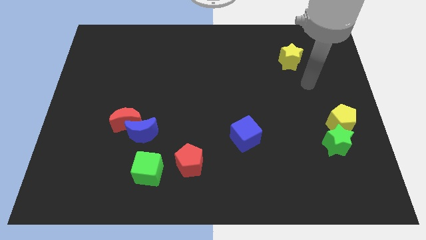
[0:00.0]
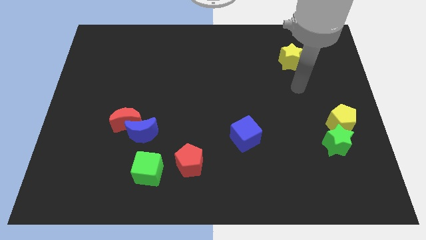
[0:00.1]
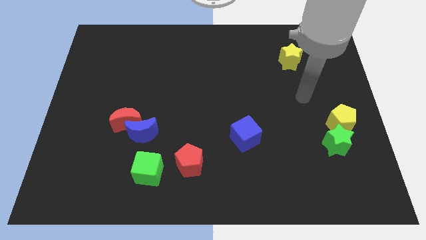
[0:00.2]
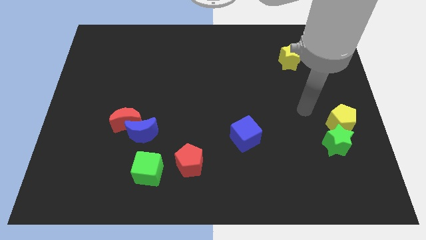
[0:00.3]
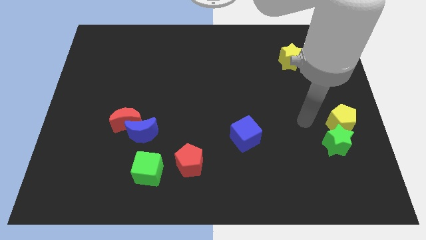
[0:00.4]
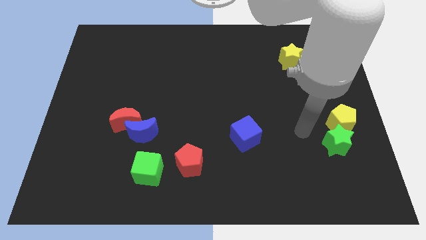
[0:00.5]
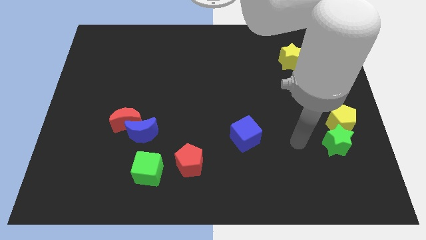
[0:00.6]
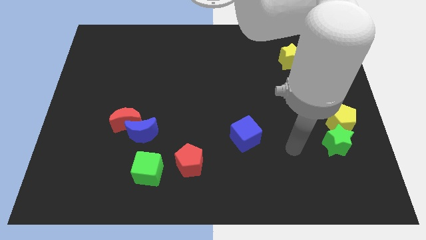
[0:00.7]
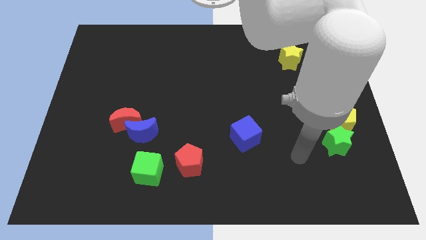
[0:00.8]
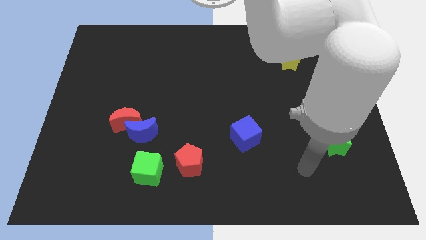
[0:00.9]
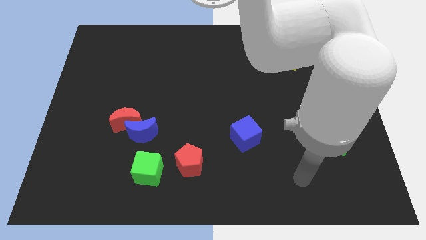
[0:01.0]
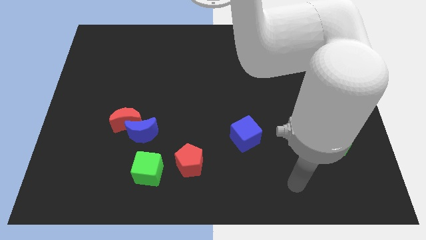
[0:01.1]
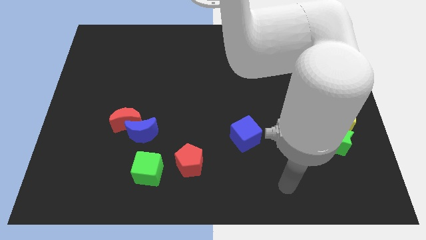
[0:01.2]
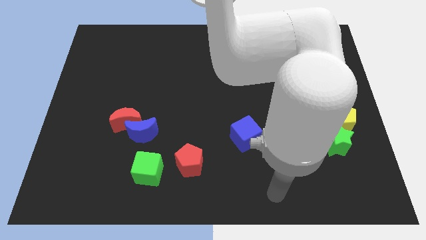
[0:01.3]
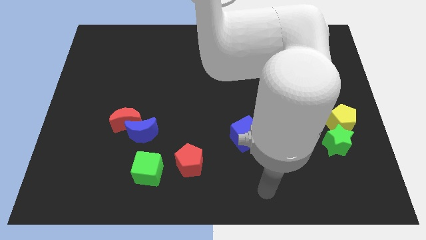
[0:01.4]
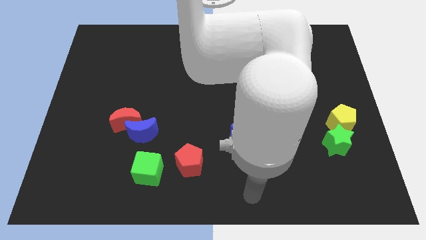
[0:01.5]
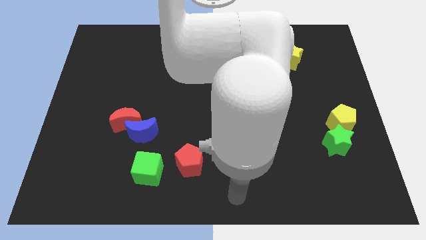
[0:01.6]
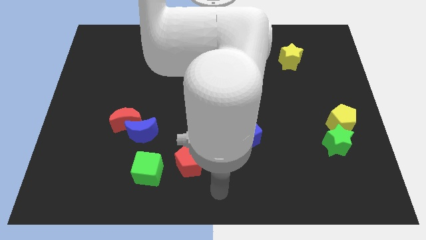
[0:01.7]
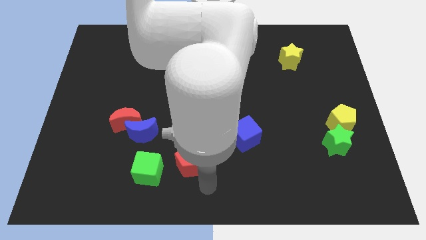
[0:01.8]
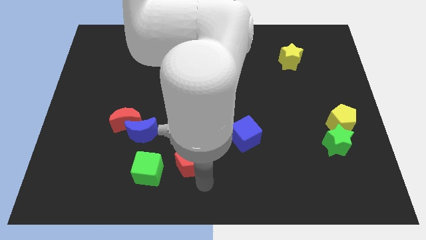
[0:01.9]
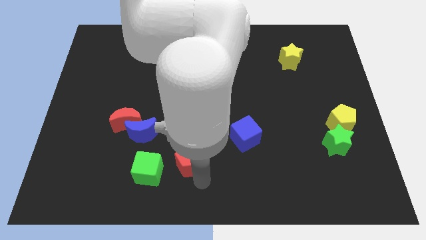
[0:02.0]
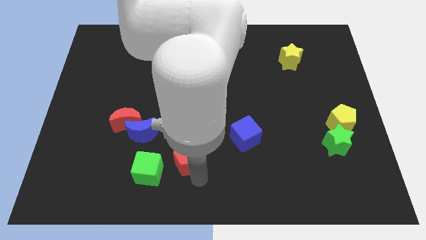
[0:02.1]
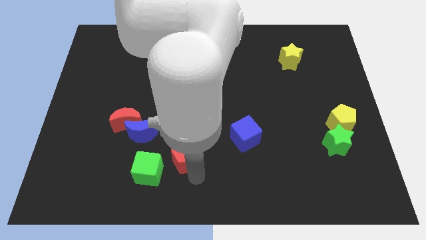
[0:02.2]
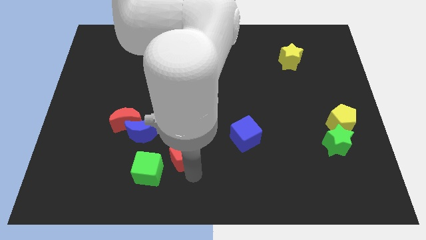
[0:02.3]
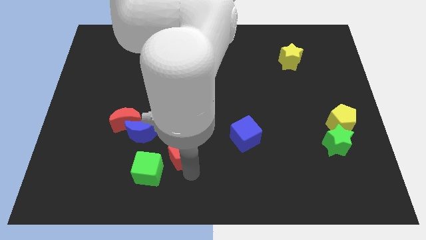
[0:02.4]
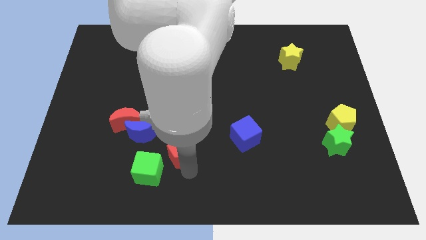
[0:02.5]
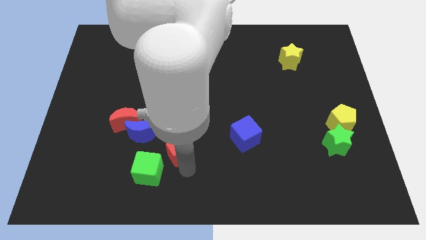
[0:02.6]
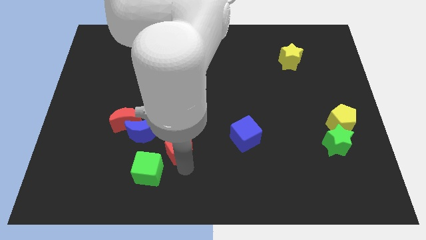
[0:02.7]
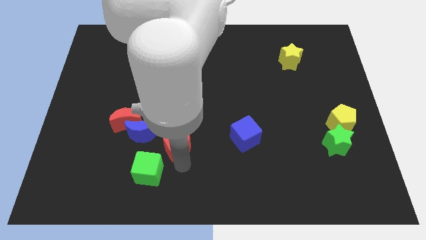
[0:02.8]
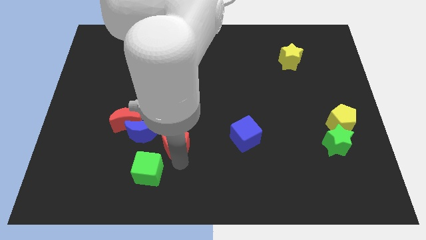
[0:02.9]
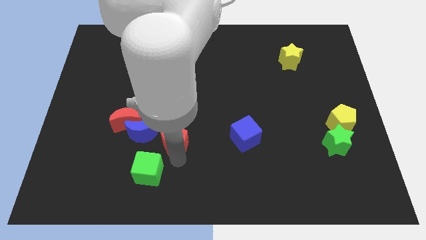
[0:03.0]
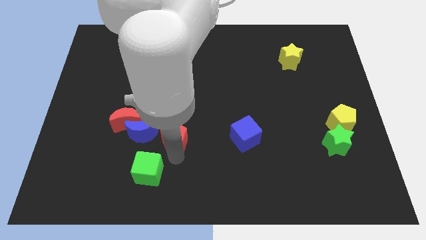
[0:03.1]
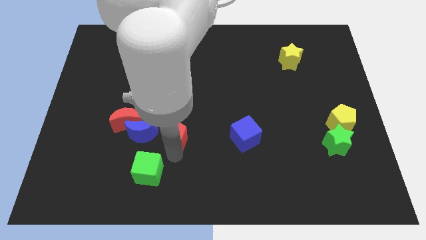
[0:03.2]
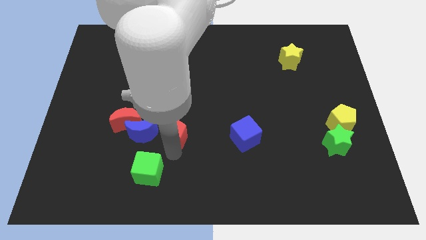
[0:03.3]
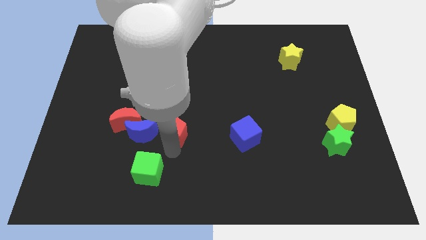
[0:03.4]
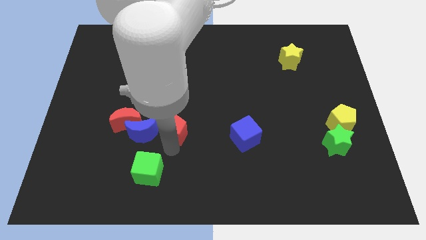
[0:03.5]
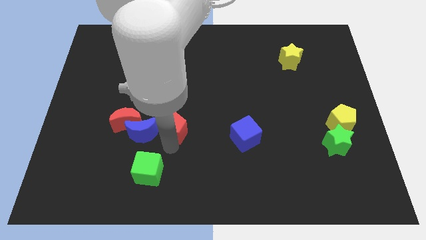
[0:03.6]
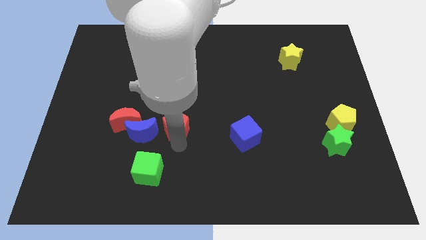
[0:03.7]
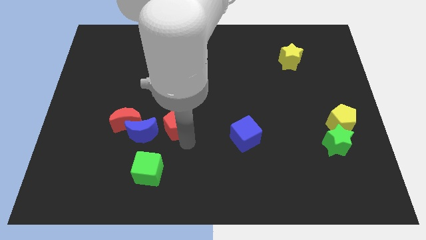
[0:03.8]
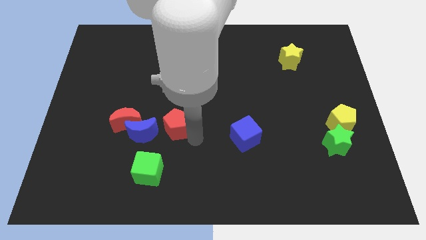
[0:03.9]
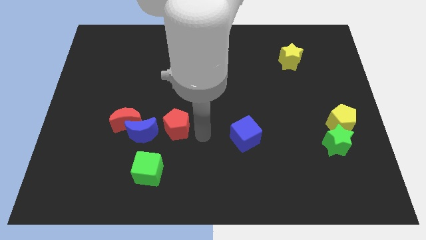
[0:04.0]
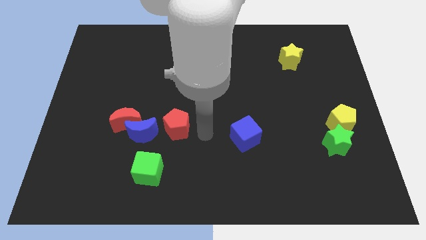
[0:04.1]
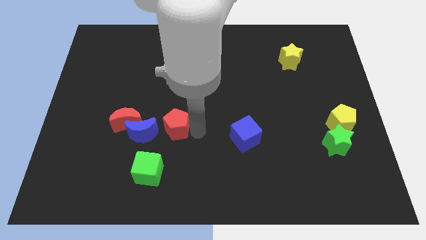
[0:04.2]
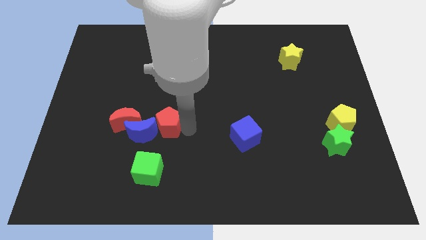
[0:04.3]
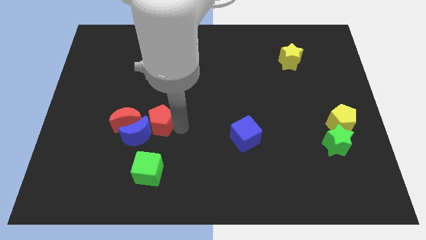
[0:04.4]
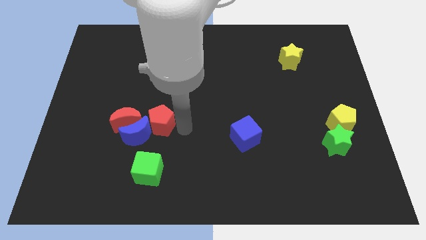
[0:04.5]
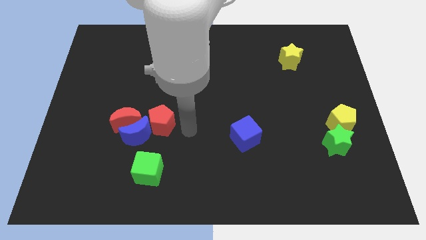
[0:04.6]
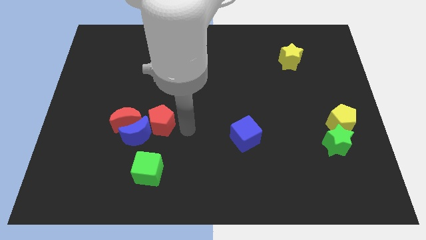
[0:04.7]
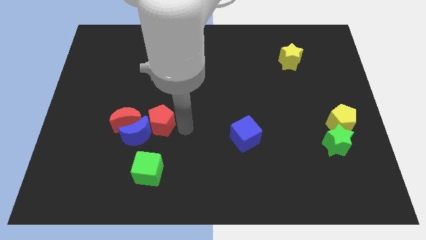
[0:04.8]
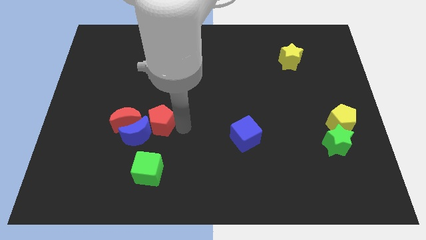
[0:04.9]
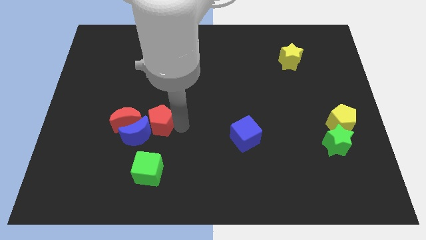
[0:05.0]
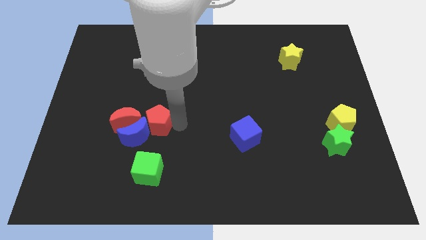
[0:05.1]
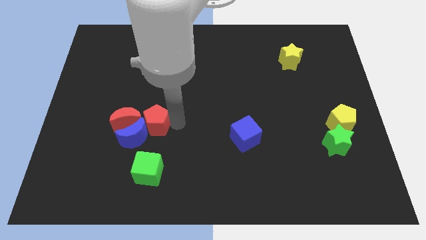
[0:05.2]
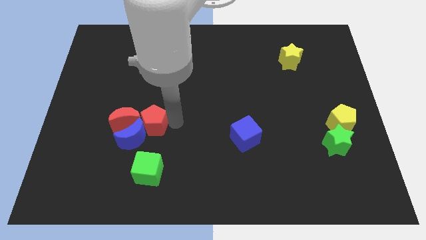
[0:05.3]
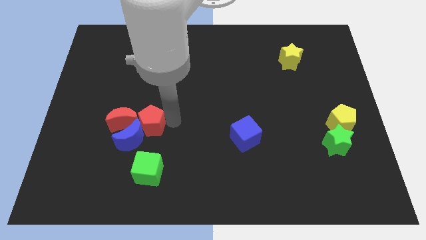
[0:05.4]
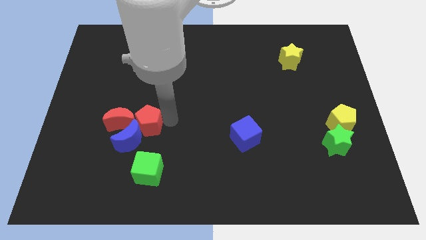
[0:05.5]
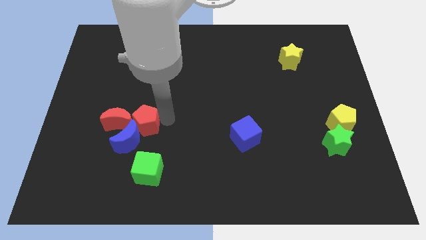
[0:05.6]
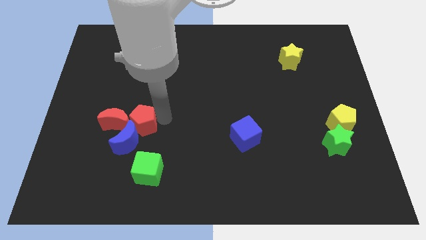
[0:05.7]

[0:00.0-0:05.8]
slide the red pentagon towards the red moon
